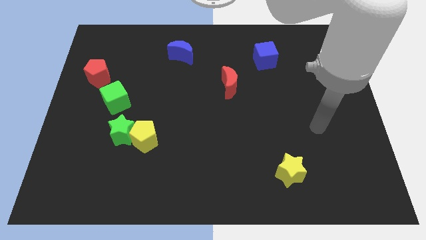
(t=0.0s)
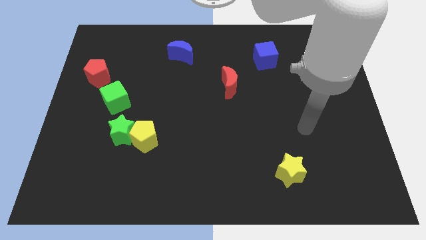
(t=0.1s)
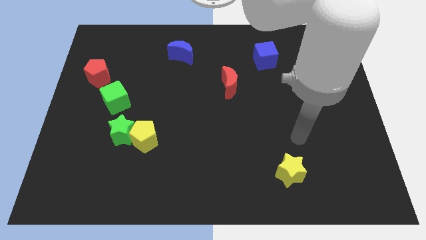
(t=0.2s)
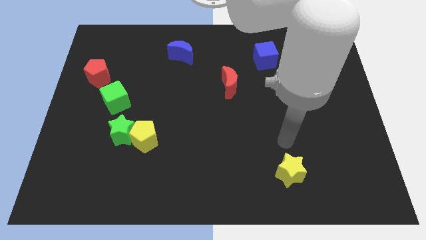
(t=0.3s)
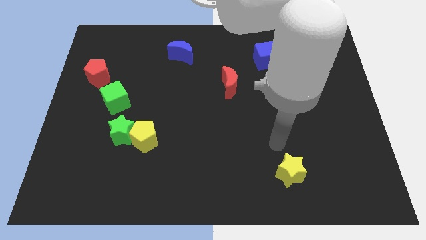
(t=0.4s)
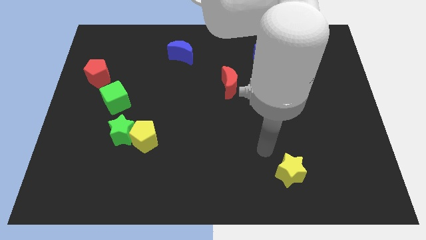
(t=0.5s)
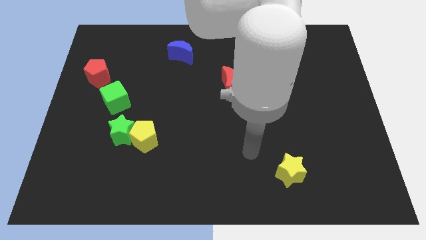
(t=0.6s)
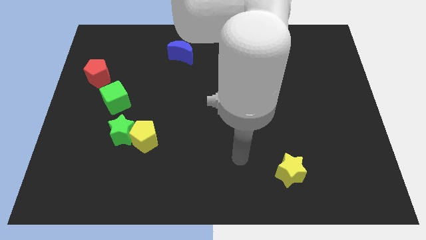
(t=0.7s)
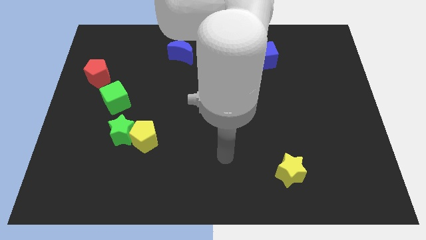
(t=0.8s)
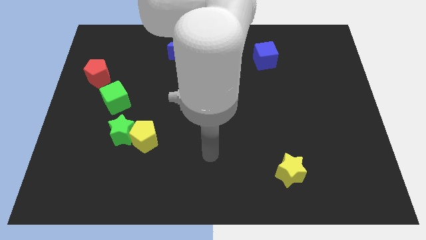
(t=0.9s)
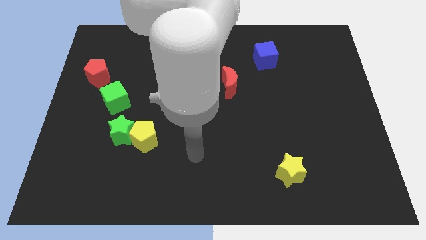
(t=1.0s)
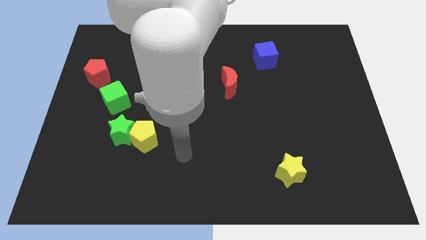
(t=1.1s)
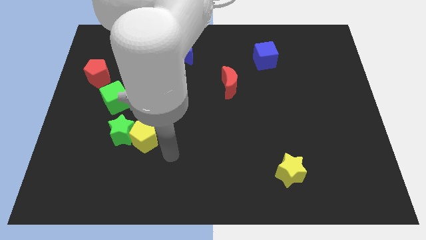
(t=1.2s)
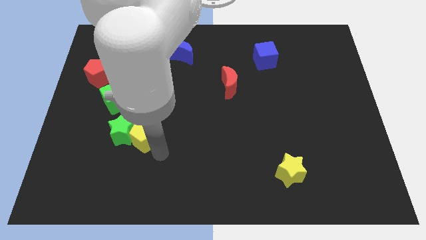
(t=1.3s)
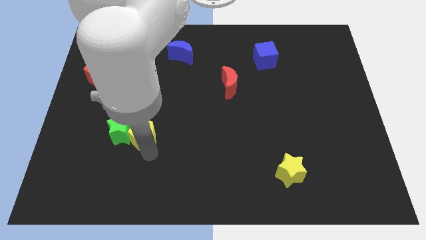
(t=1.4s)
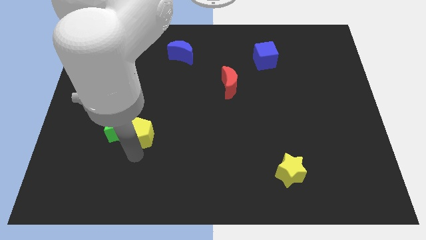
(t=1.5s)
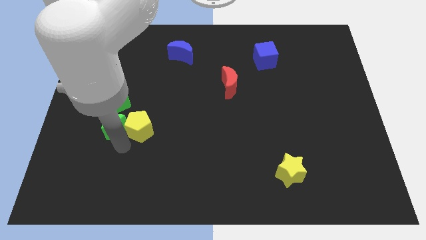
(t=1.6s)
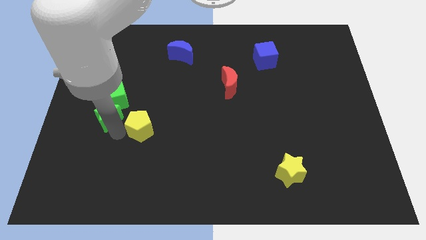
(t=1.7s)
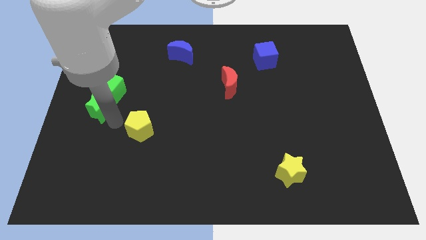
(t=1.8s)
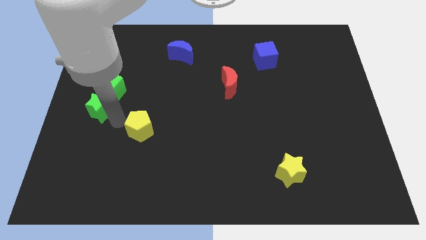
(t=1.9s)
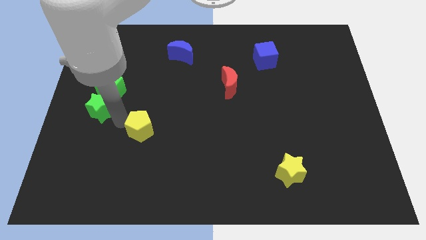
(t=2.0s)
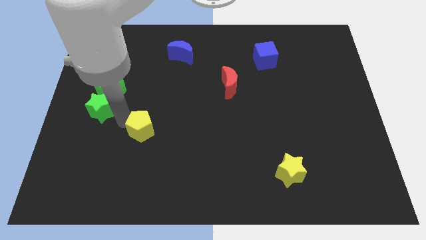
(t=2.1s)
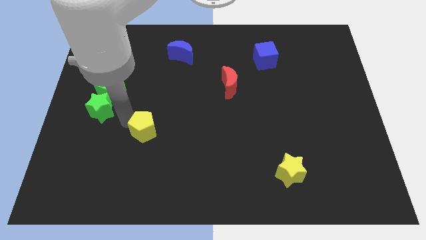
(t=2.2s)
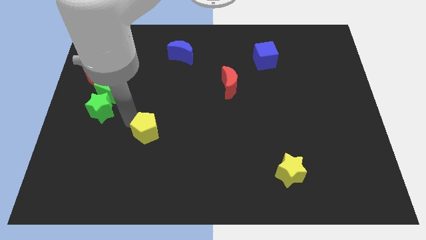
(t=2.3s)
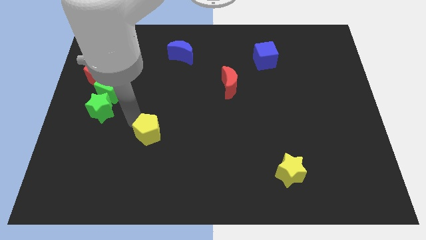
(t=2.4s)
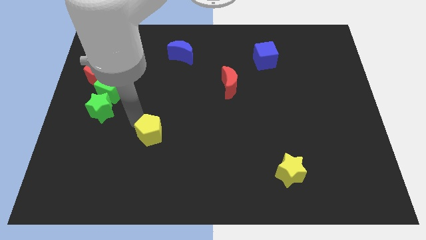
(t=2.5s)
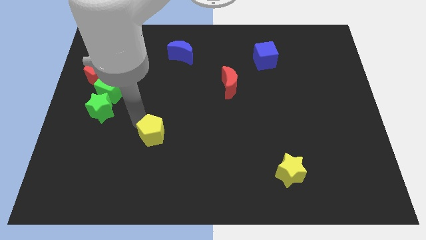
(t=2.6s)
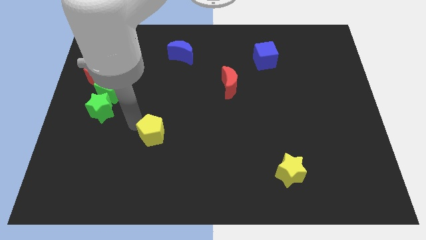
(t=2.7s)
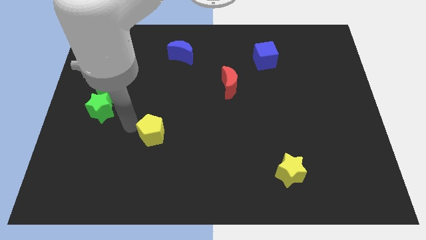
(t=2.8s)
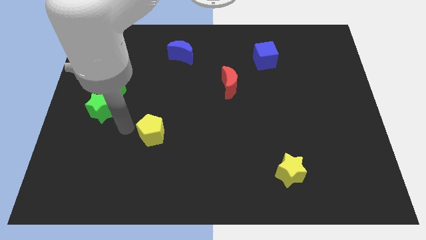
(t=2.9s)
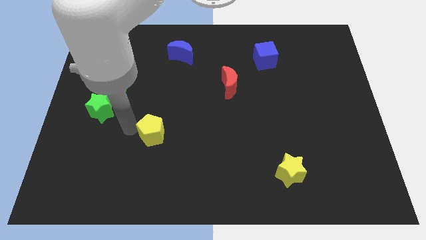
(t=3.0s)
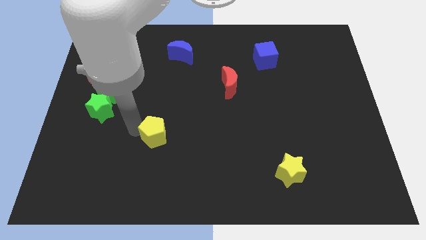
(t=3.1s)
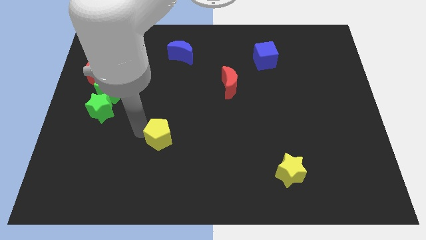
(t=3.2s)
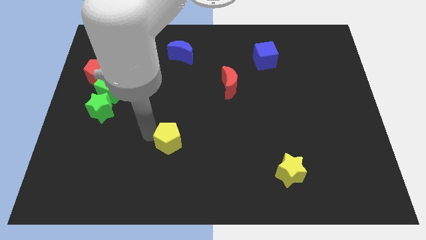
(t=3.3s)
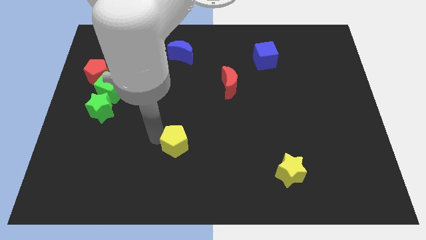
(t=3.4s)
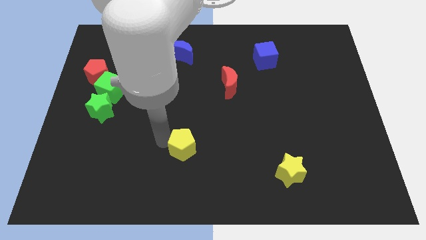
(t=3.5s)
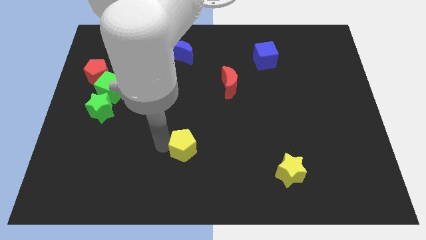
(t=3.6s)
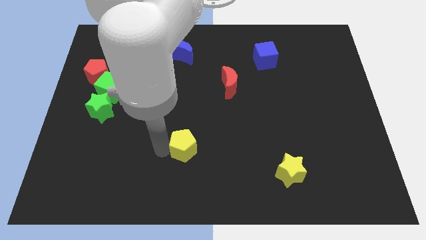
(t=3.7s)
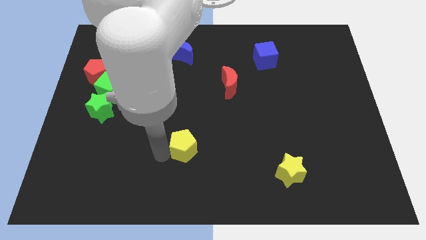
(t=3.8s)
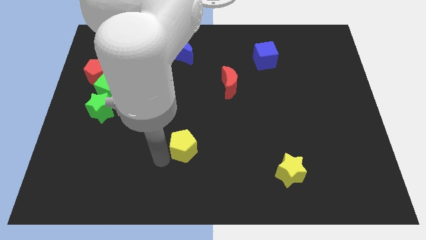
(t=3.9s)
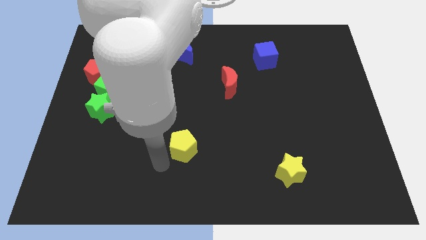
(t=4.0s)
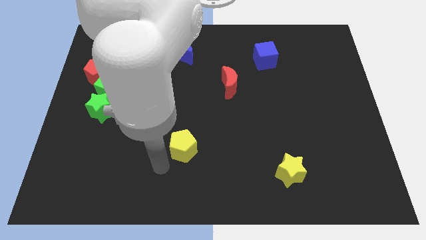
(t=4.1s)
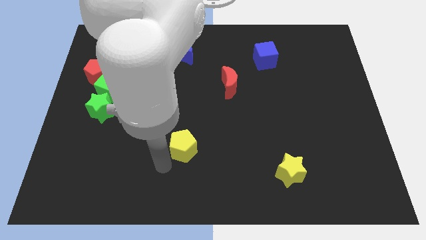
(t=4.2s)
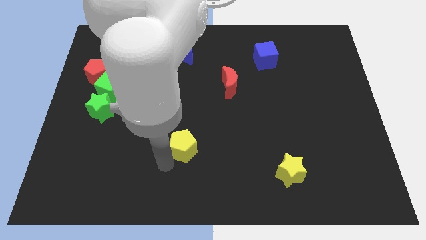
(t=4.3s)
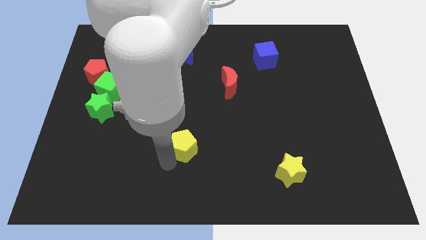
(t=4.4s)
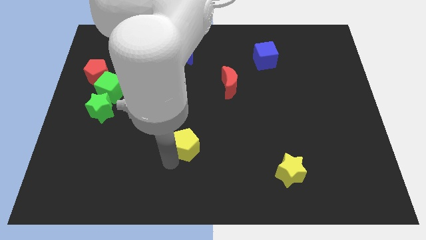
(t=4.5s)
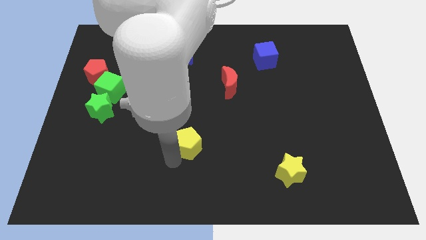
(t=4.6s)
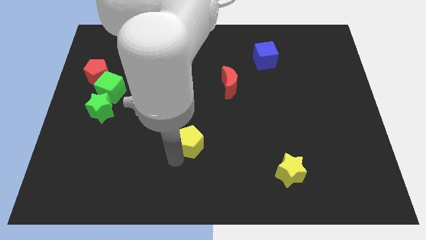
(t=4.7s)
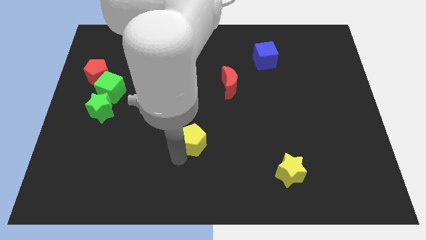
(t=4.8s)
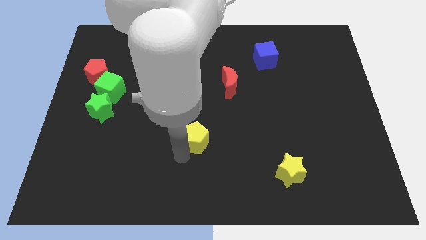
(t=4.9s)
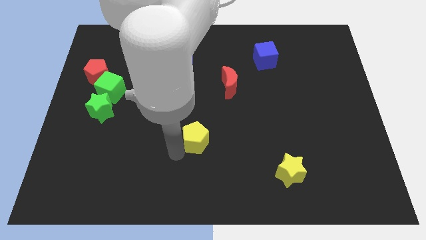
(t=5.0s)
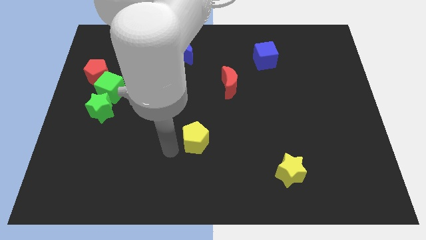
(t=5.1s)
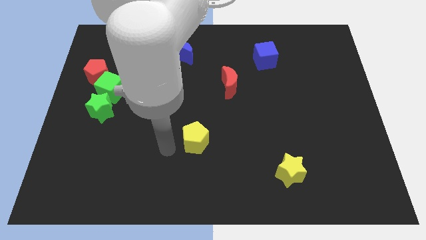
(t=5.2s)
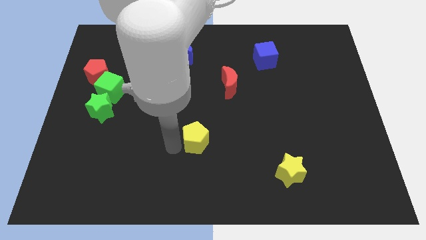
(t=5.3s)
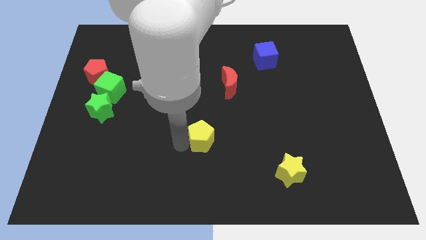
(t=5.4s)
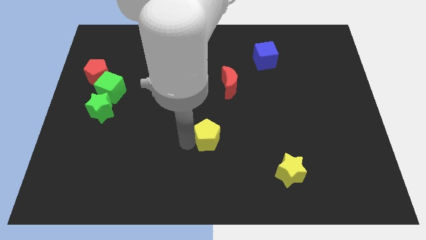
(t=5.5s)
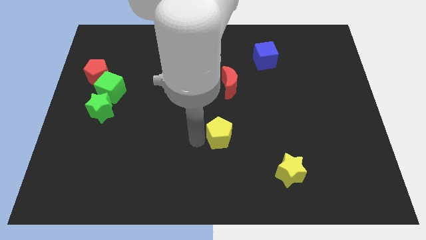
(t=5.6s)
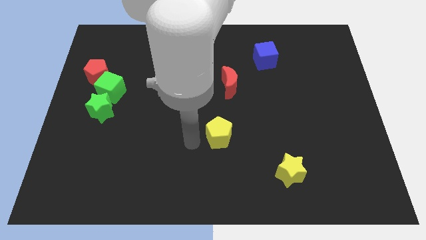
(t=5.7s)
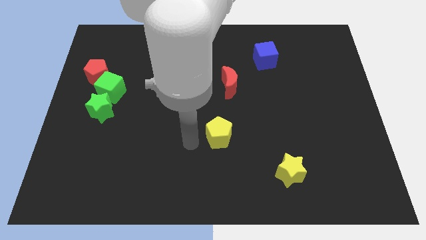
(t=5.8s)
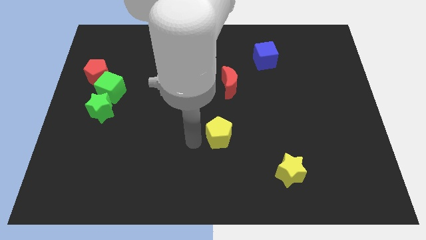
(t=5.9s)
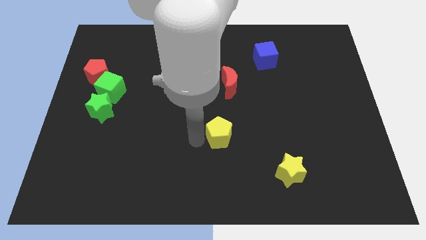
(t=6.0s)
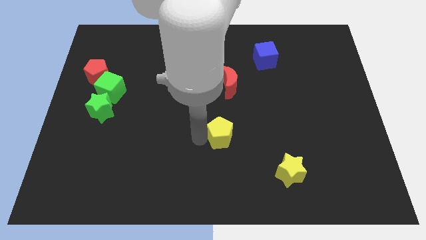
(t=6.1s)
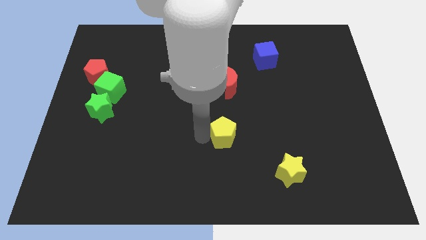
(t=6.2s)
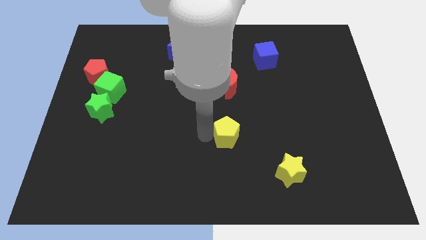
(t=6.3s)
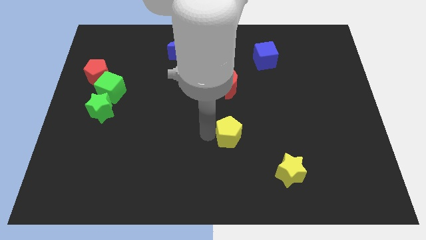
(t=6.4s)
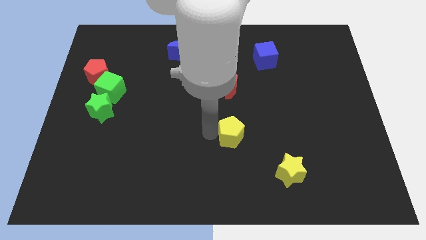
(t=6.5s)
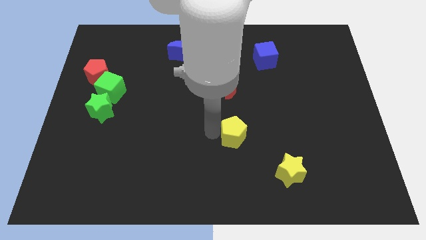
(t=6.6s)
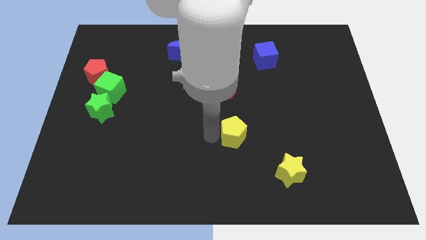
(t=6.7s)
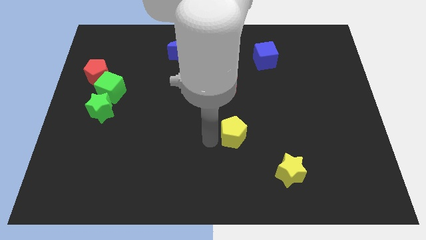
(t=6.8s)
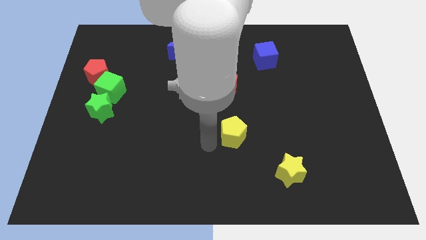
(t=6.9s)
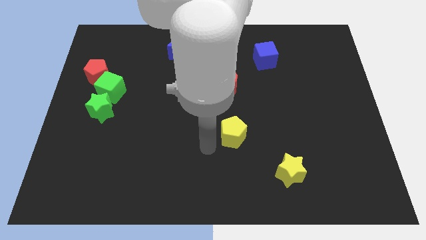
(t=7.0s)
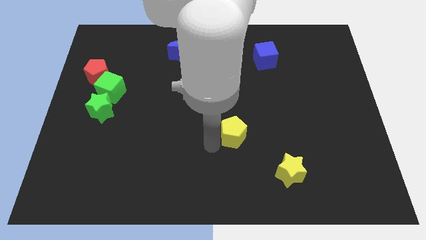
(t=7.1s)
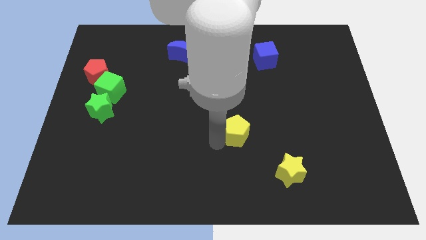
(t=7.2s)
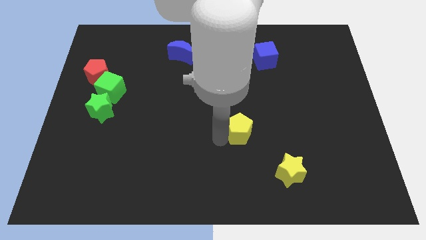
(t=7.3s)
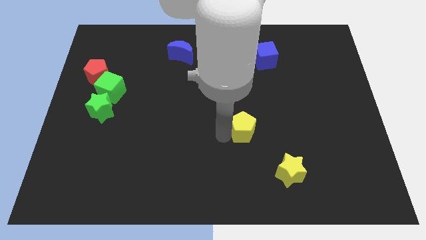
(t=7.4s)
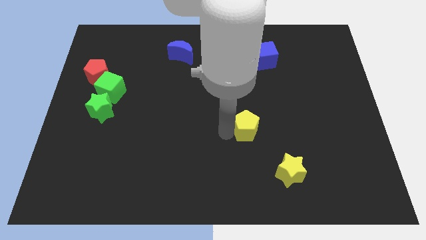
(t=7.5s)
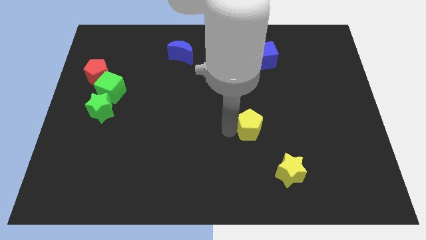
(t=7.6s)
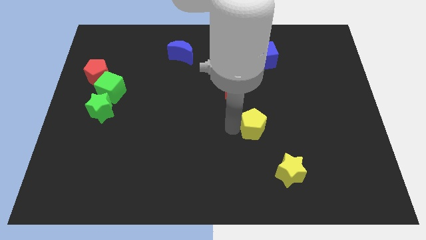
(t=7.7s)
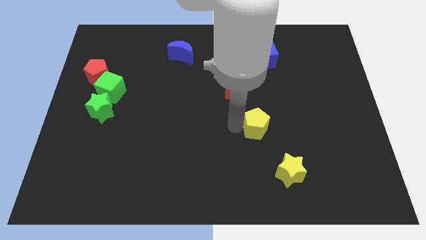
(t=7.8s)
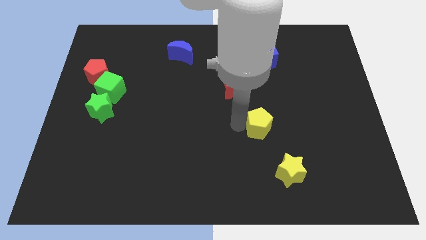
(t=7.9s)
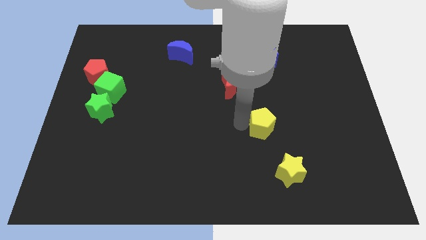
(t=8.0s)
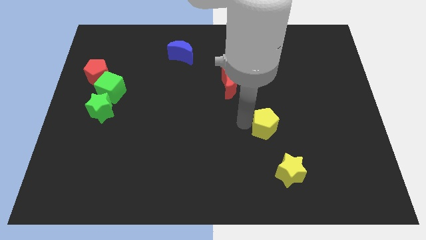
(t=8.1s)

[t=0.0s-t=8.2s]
put the yellow pentagon above the yellow star
